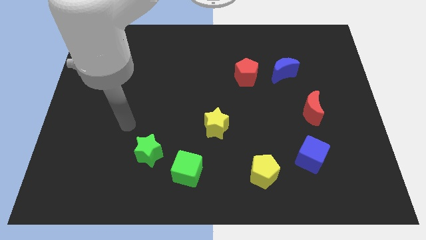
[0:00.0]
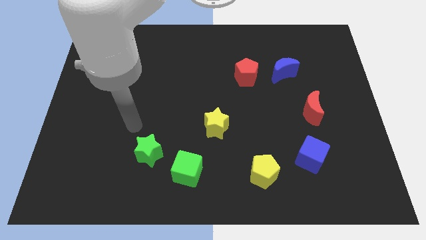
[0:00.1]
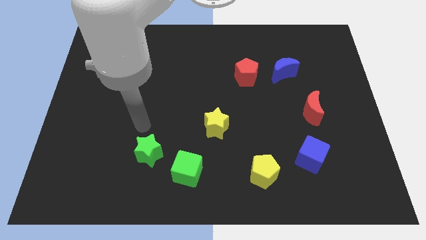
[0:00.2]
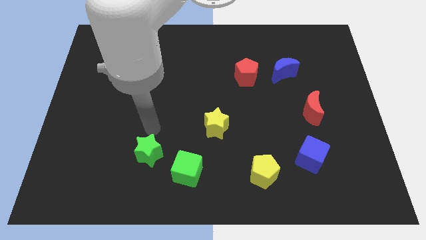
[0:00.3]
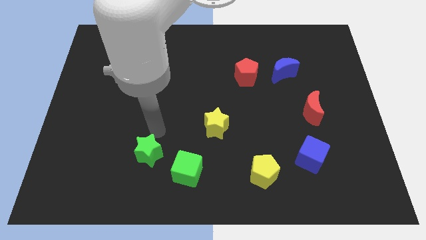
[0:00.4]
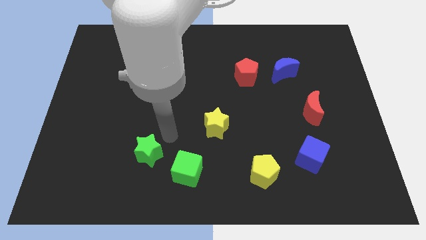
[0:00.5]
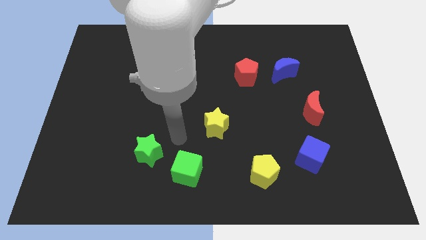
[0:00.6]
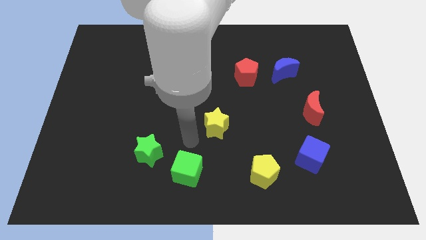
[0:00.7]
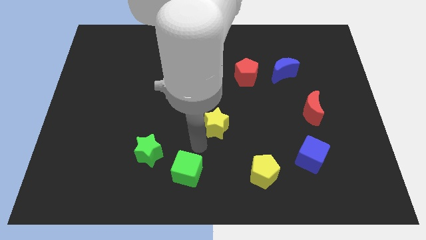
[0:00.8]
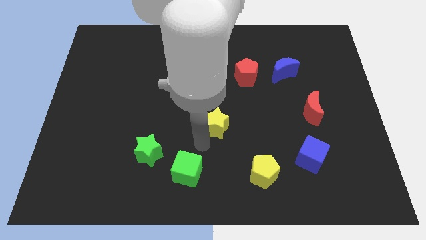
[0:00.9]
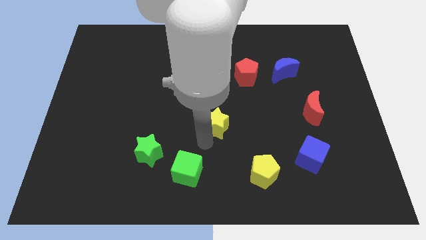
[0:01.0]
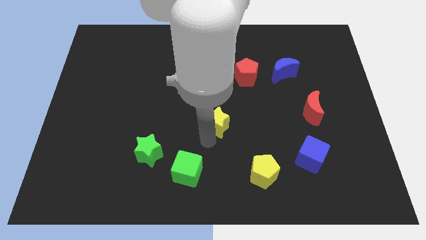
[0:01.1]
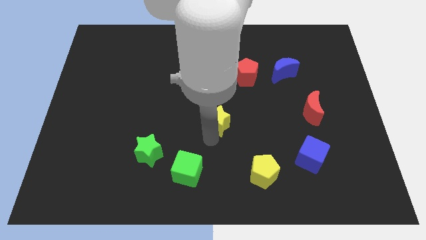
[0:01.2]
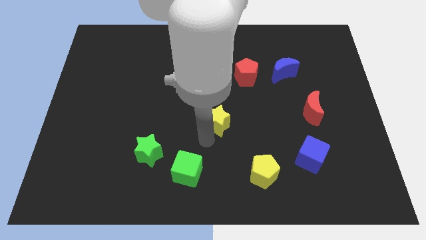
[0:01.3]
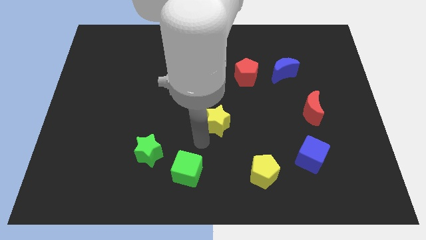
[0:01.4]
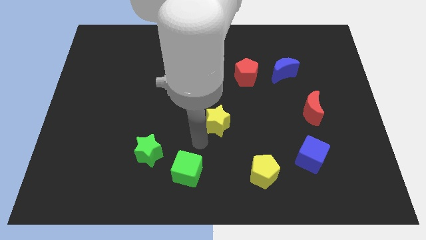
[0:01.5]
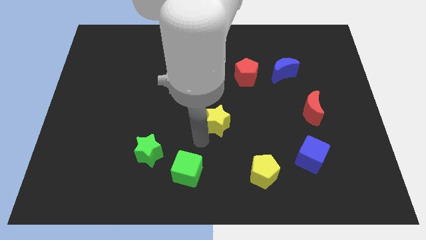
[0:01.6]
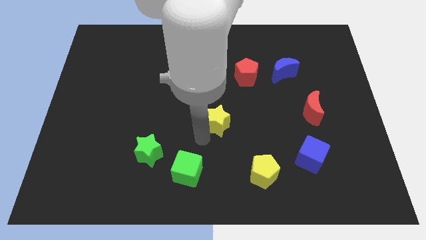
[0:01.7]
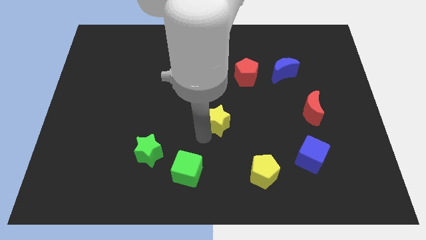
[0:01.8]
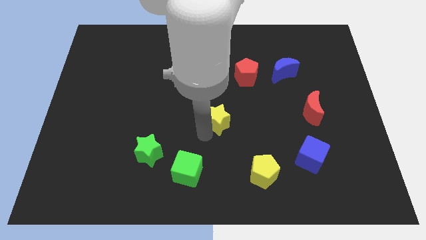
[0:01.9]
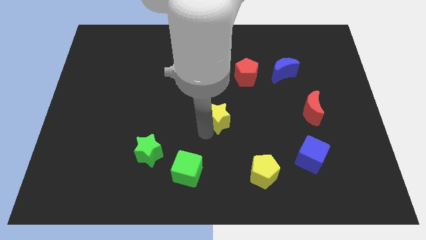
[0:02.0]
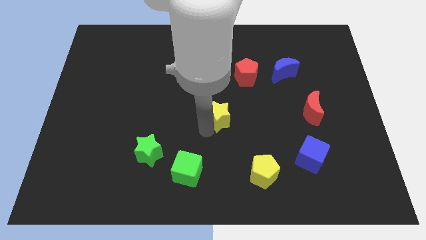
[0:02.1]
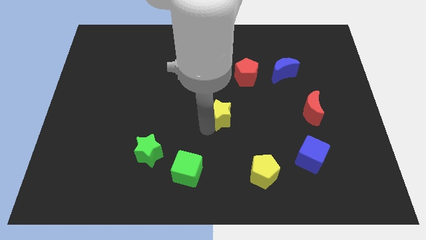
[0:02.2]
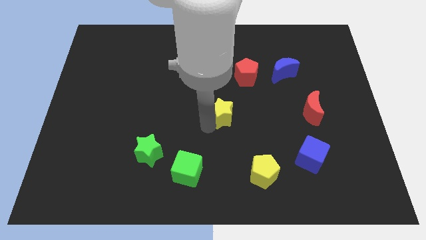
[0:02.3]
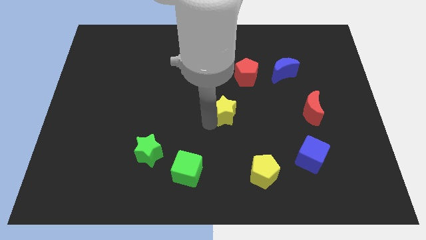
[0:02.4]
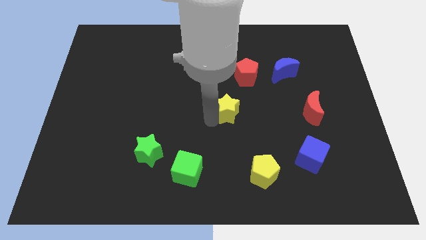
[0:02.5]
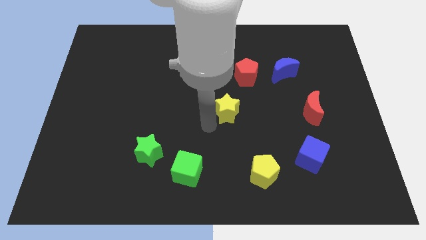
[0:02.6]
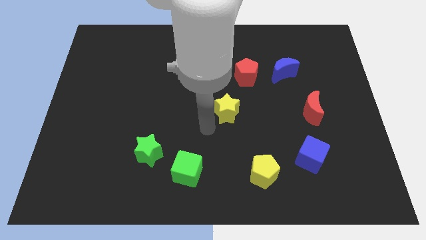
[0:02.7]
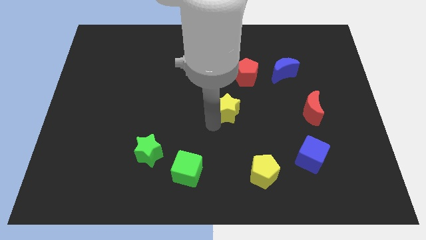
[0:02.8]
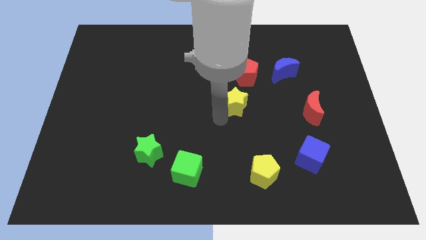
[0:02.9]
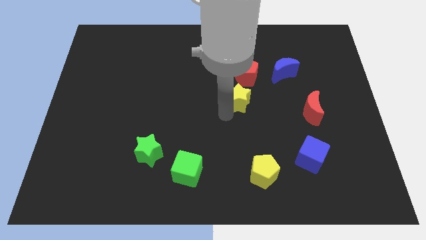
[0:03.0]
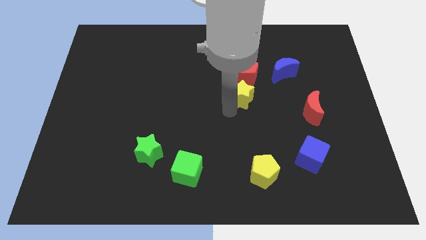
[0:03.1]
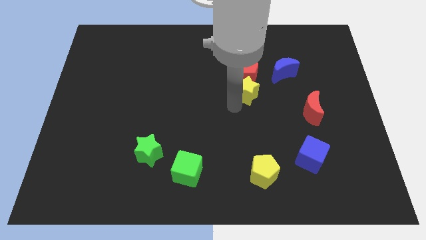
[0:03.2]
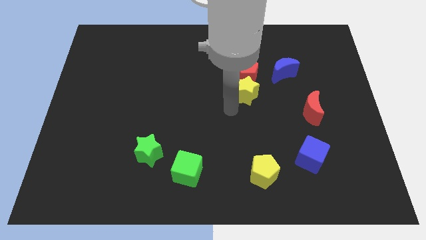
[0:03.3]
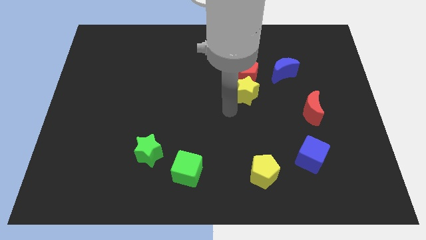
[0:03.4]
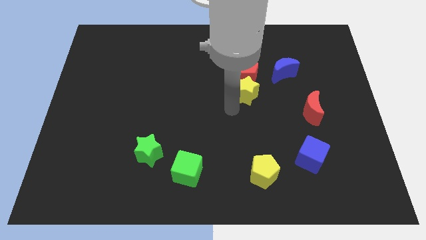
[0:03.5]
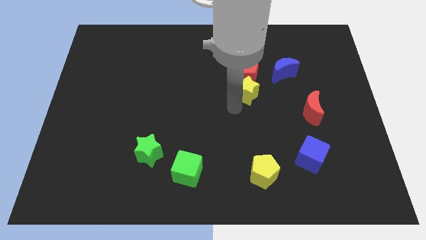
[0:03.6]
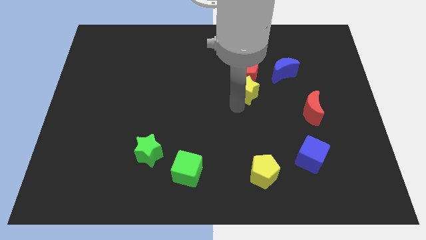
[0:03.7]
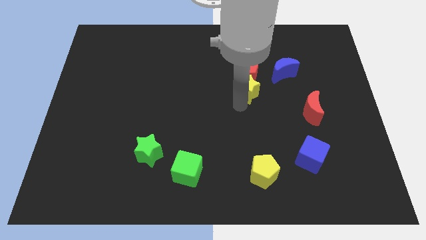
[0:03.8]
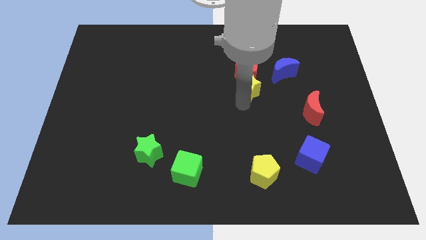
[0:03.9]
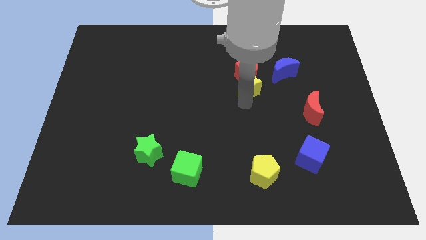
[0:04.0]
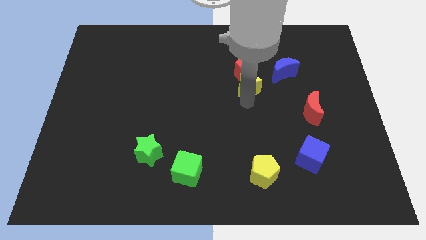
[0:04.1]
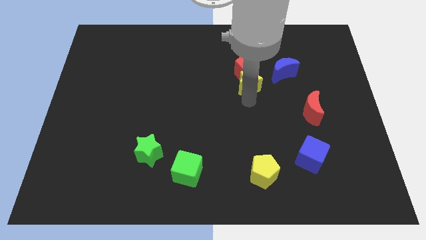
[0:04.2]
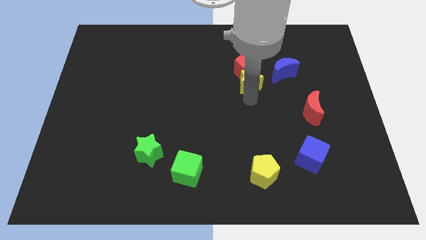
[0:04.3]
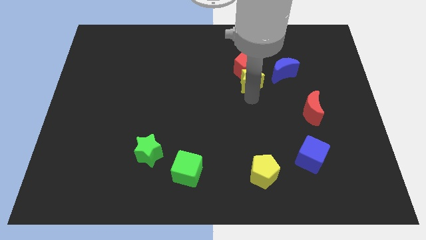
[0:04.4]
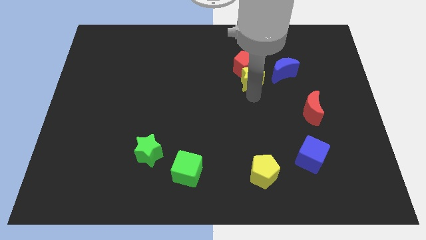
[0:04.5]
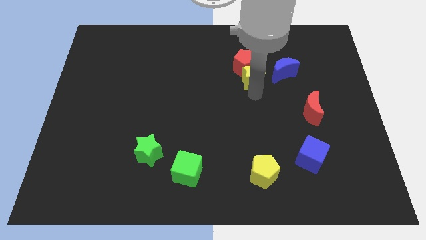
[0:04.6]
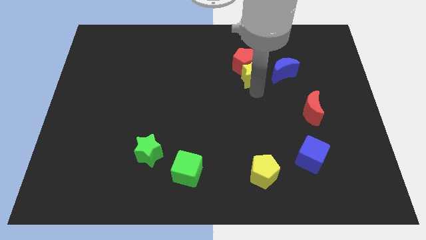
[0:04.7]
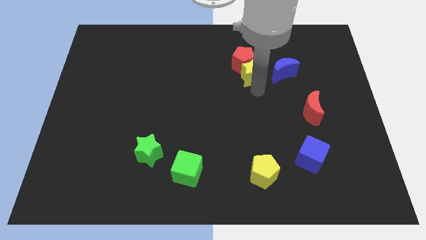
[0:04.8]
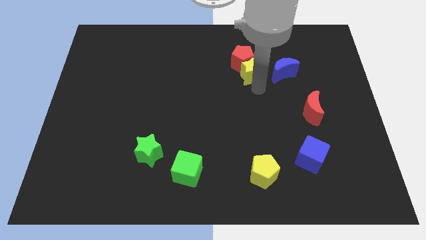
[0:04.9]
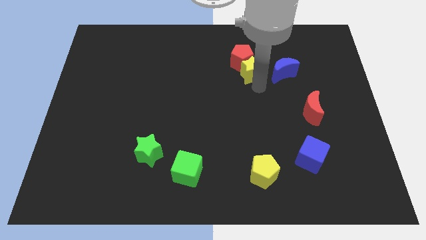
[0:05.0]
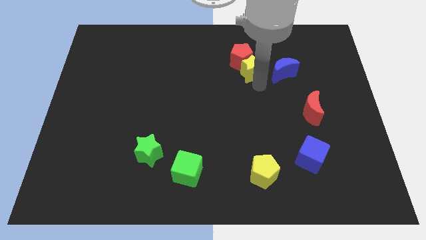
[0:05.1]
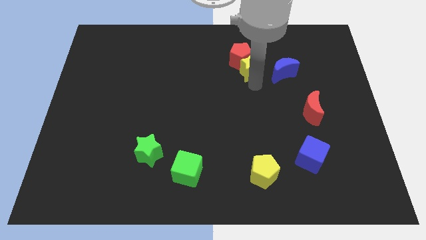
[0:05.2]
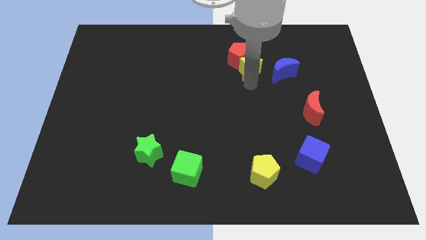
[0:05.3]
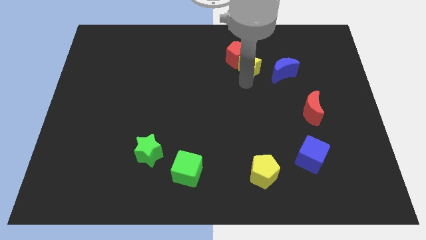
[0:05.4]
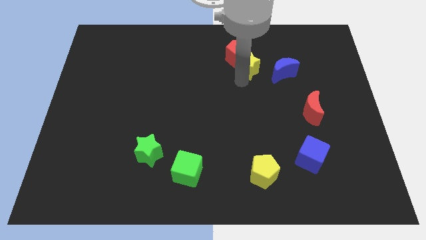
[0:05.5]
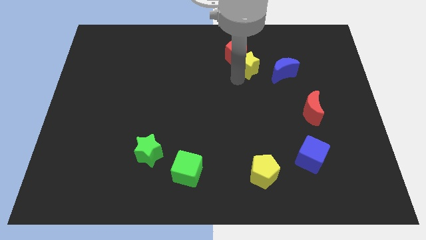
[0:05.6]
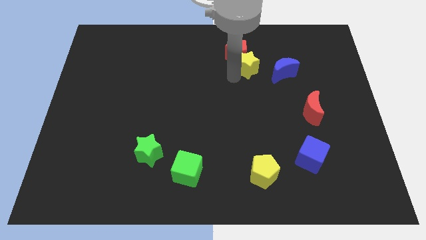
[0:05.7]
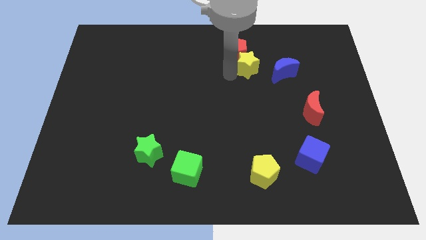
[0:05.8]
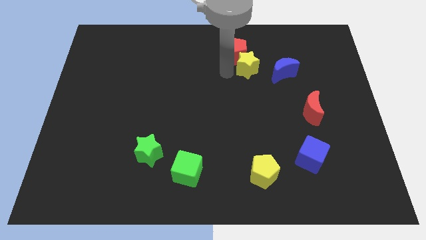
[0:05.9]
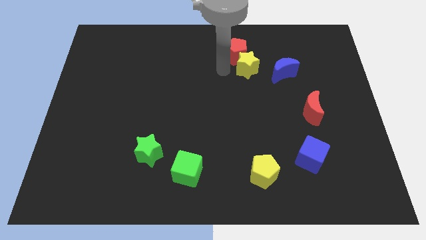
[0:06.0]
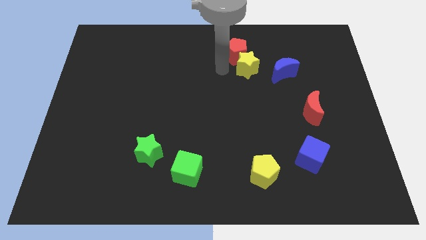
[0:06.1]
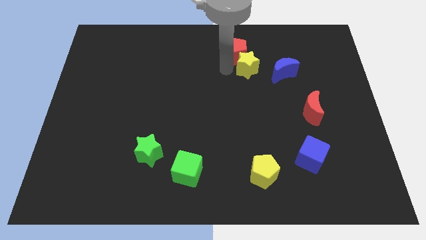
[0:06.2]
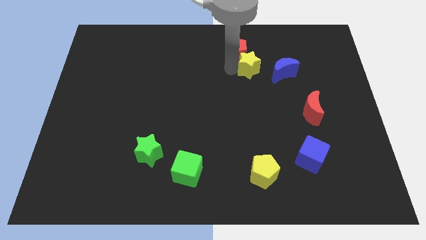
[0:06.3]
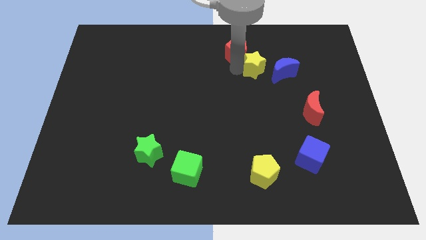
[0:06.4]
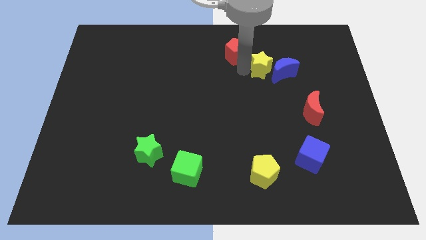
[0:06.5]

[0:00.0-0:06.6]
move the yellow star upwards and right

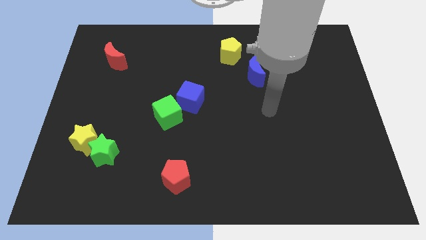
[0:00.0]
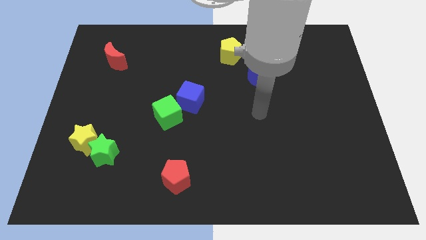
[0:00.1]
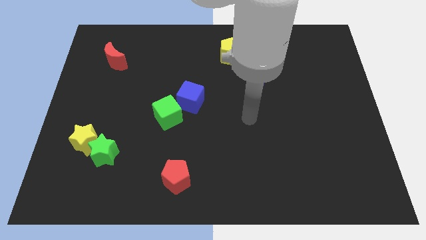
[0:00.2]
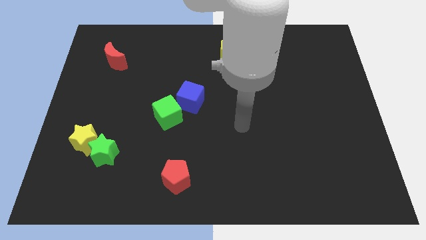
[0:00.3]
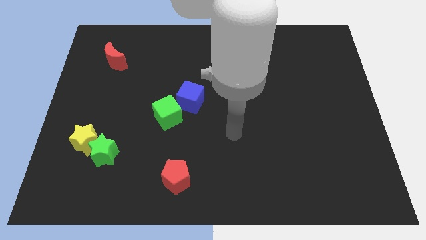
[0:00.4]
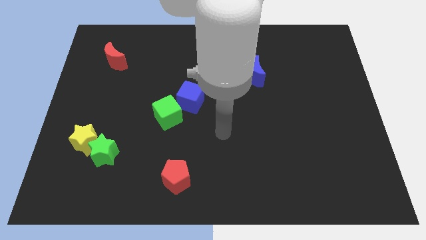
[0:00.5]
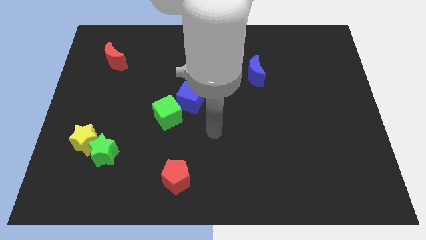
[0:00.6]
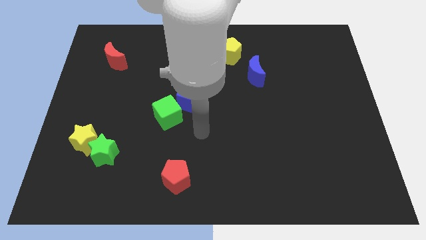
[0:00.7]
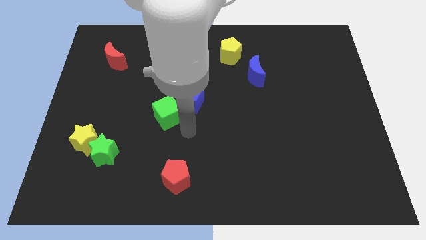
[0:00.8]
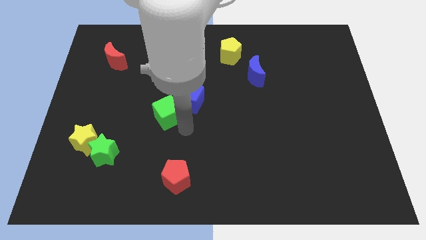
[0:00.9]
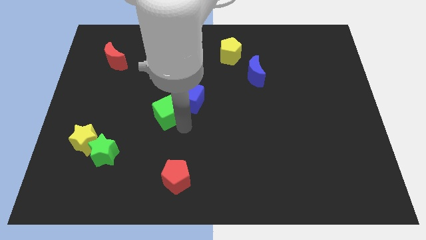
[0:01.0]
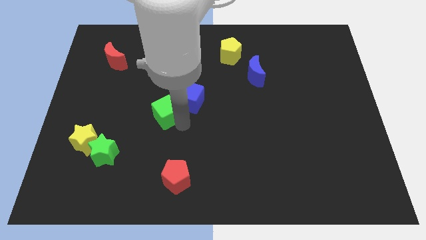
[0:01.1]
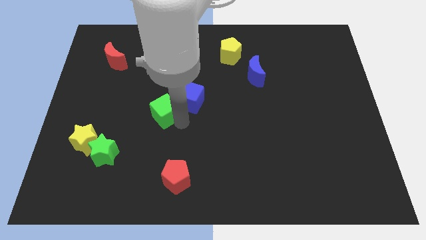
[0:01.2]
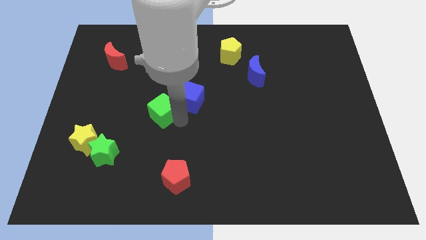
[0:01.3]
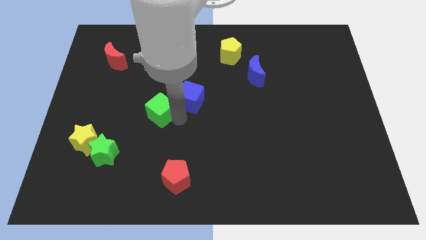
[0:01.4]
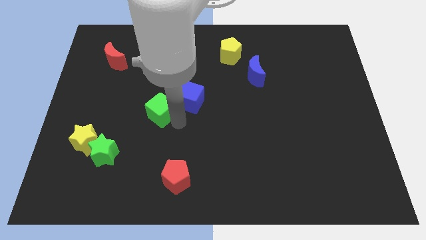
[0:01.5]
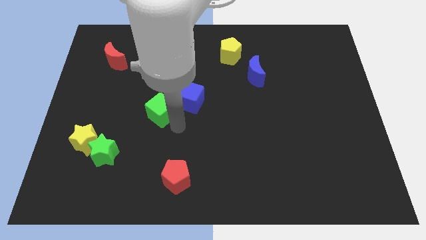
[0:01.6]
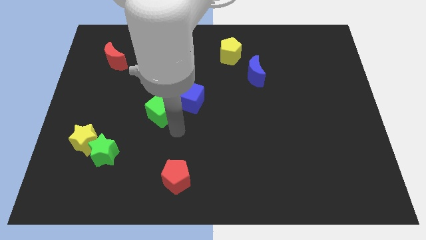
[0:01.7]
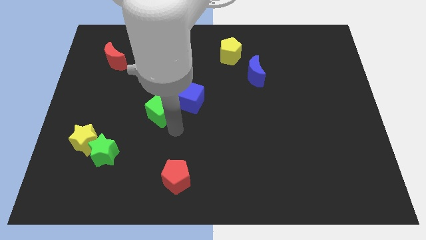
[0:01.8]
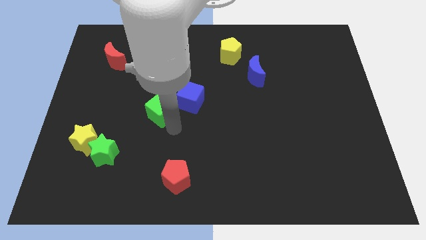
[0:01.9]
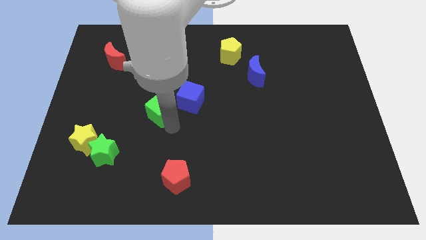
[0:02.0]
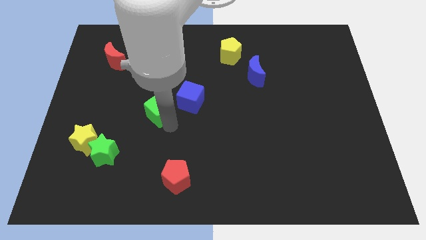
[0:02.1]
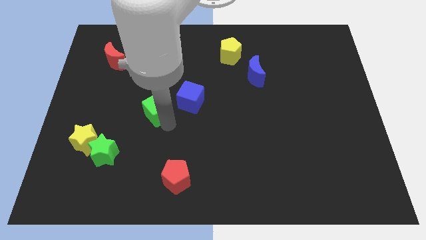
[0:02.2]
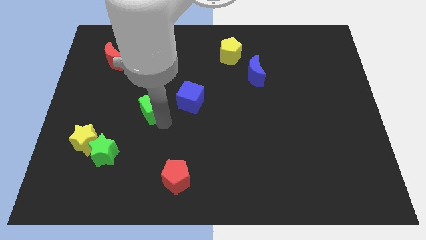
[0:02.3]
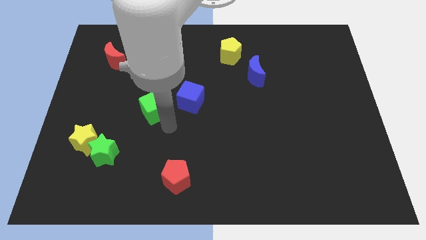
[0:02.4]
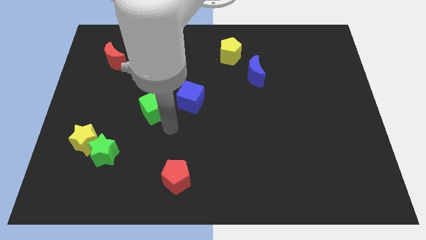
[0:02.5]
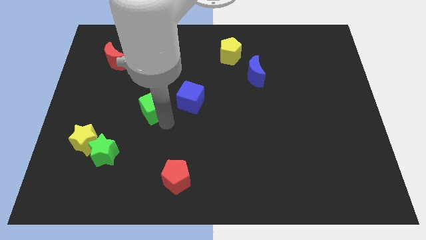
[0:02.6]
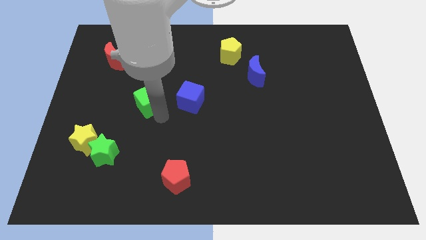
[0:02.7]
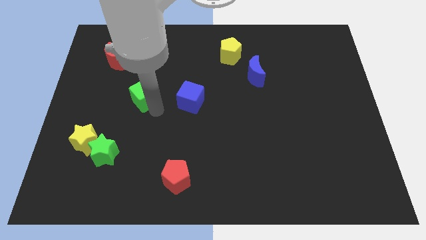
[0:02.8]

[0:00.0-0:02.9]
slightly push the green cube upwards and to the left
